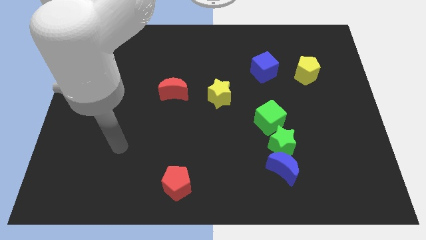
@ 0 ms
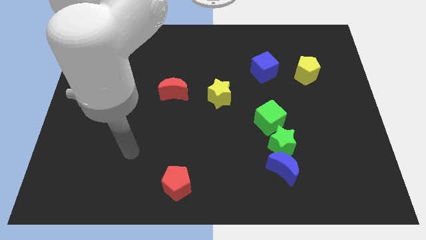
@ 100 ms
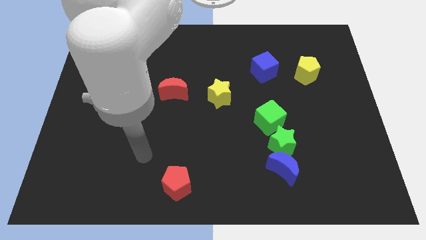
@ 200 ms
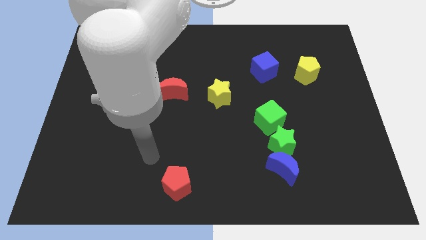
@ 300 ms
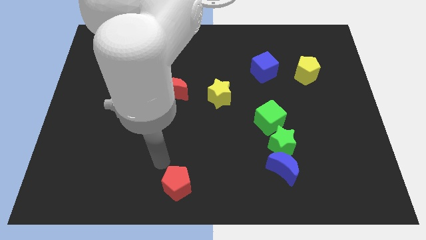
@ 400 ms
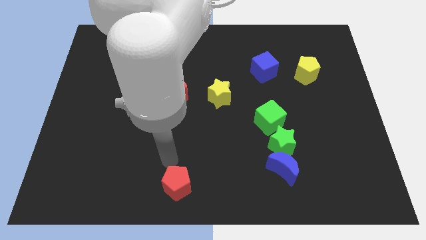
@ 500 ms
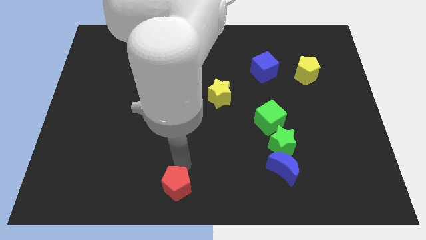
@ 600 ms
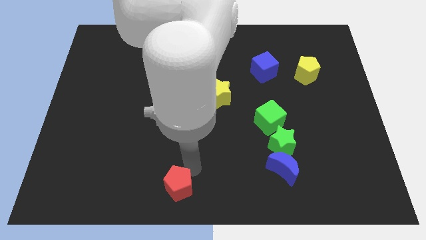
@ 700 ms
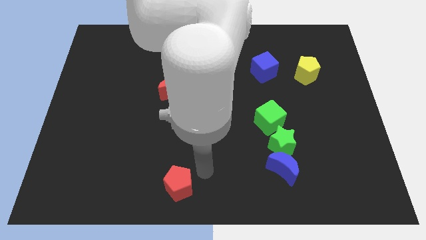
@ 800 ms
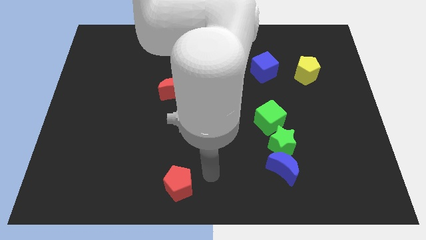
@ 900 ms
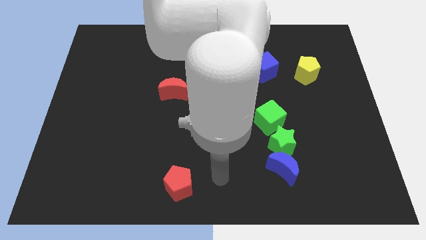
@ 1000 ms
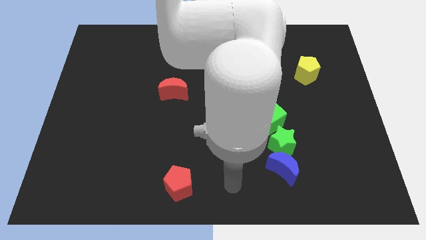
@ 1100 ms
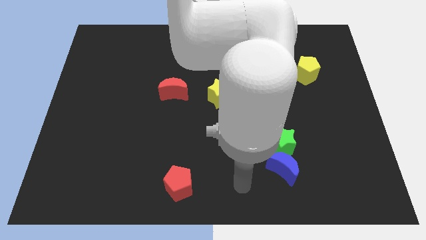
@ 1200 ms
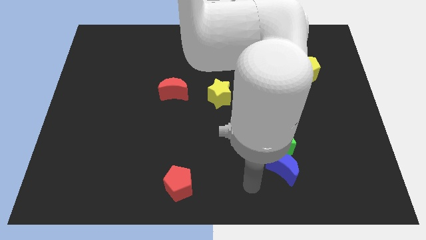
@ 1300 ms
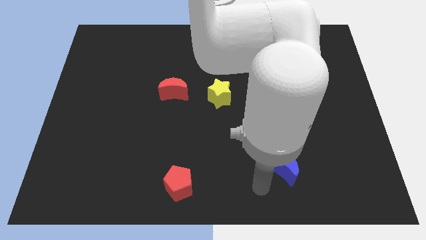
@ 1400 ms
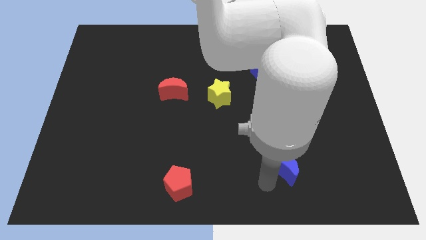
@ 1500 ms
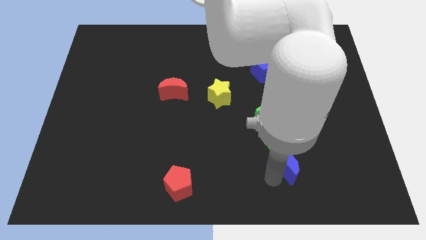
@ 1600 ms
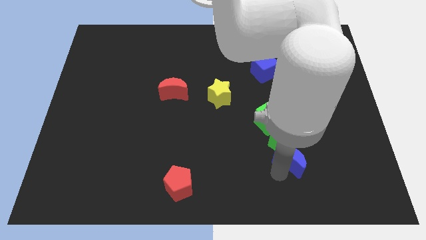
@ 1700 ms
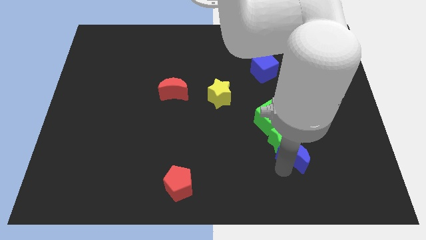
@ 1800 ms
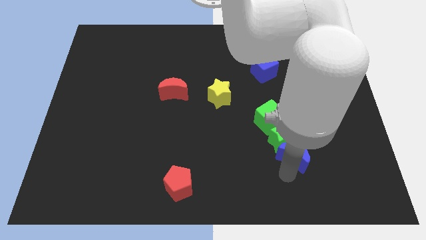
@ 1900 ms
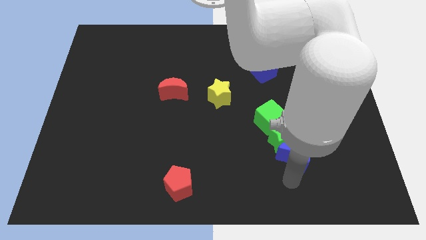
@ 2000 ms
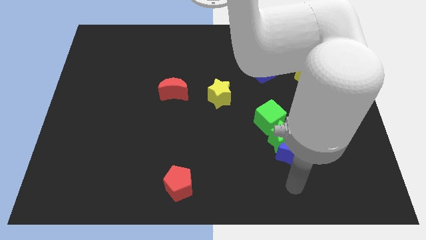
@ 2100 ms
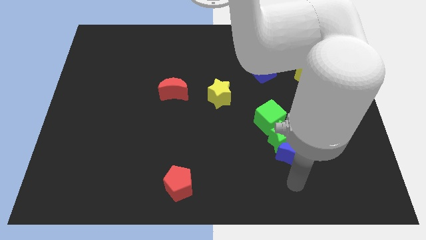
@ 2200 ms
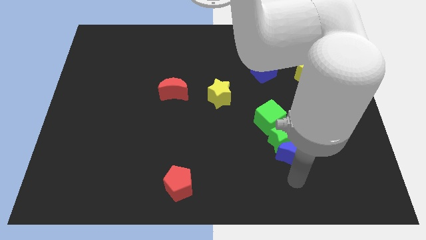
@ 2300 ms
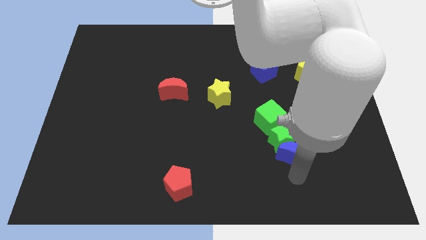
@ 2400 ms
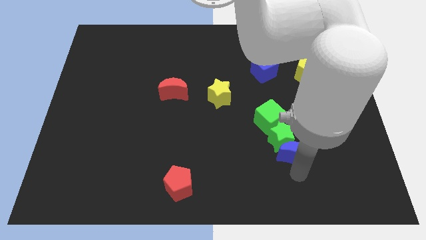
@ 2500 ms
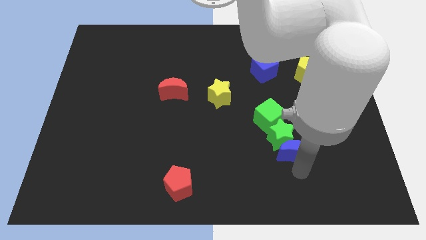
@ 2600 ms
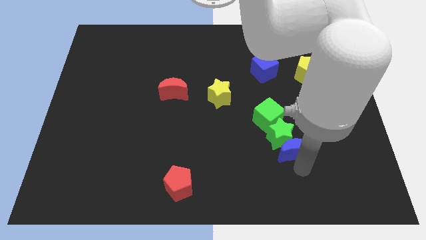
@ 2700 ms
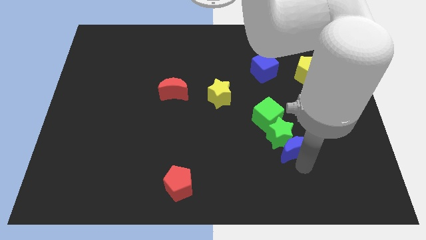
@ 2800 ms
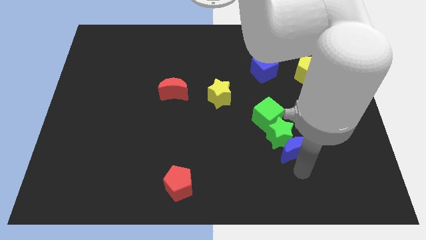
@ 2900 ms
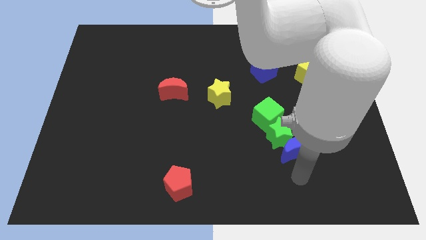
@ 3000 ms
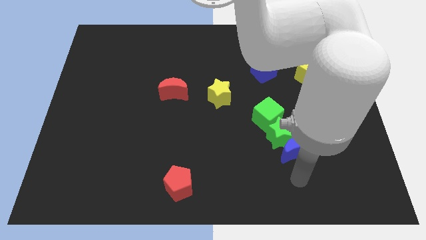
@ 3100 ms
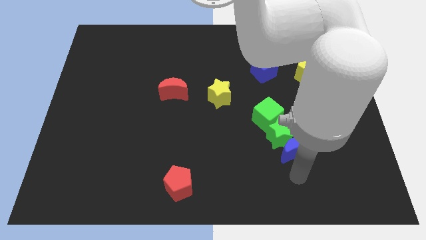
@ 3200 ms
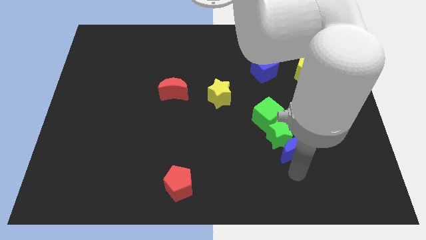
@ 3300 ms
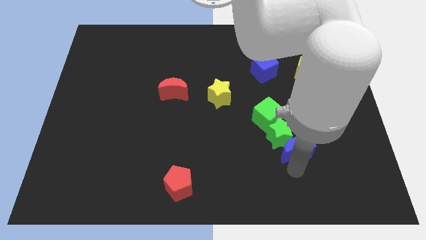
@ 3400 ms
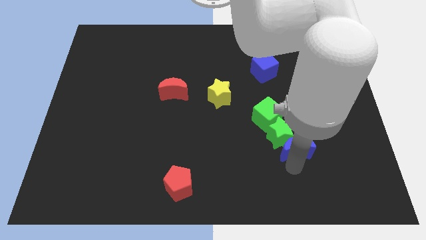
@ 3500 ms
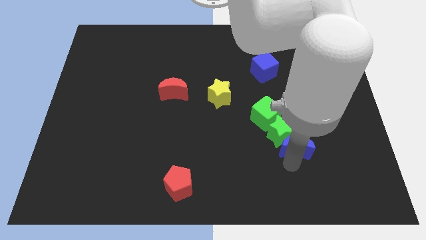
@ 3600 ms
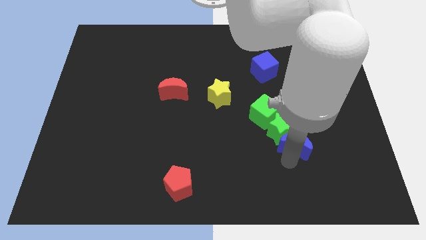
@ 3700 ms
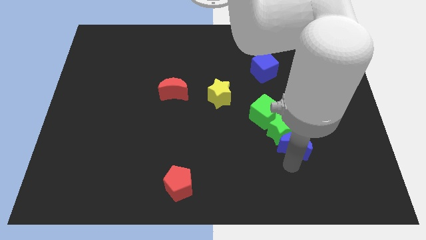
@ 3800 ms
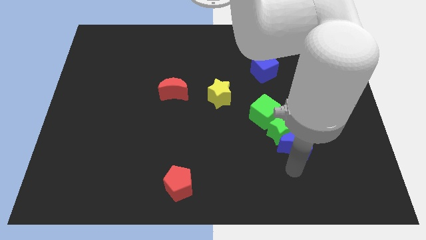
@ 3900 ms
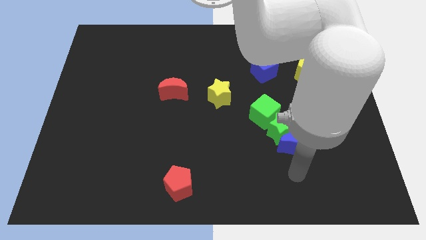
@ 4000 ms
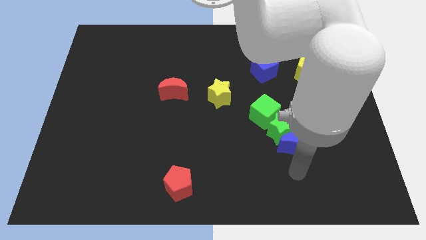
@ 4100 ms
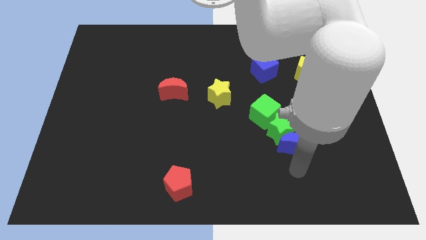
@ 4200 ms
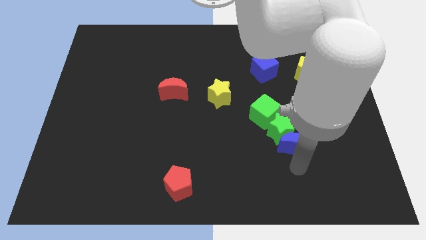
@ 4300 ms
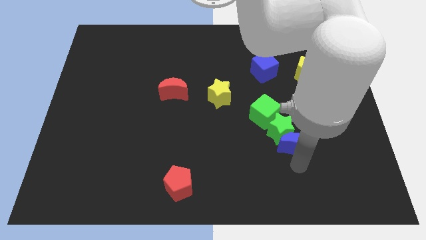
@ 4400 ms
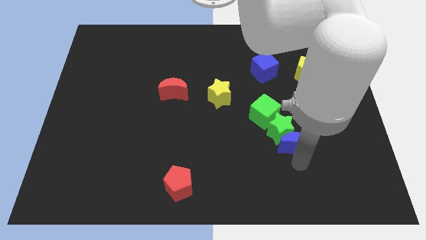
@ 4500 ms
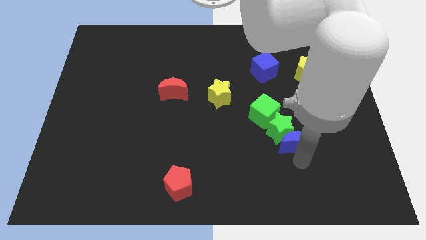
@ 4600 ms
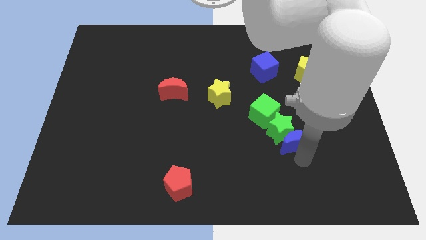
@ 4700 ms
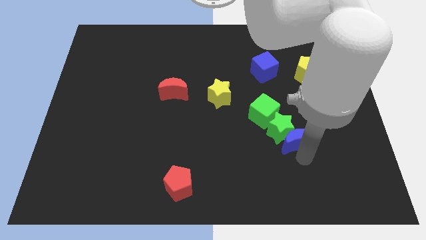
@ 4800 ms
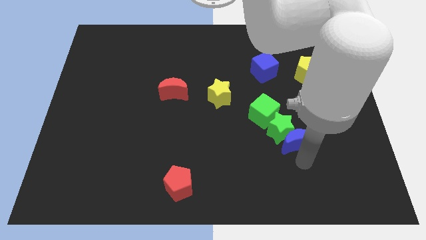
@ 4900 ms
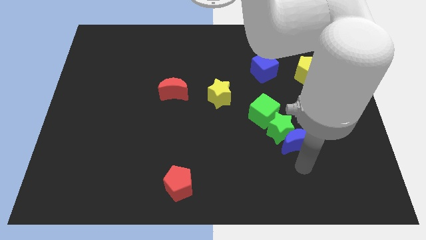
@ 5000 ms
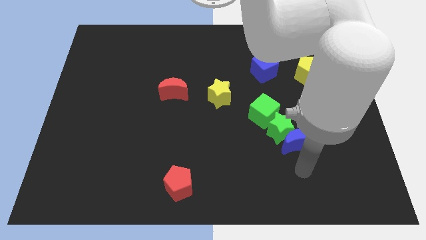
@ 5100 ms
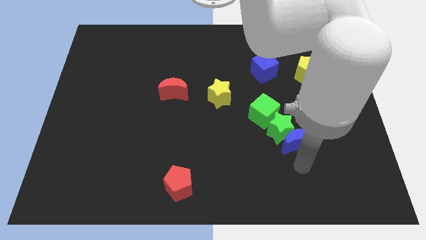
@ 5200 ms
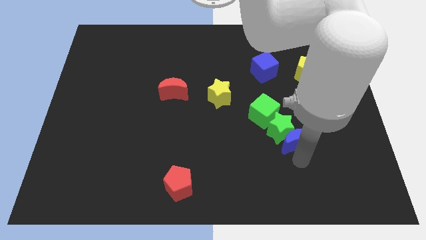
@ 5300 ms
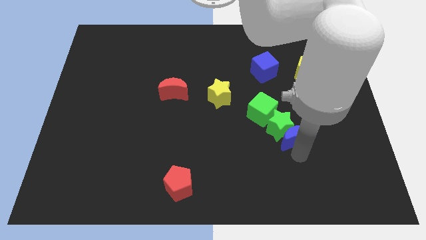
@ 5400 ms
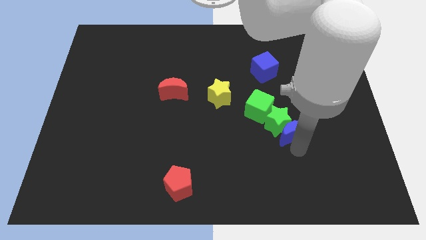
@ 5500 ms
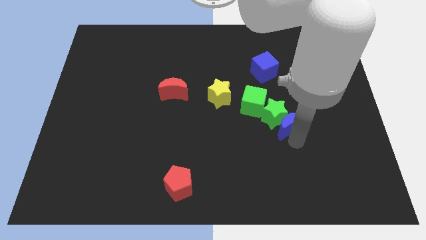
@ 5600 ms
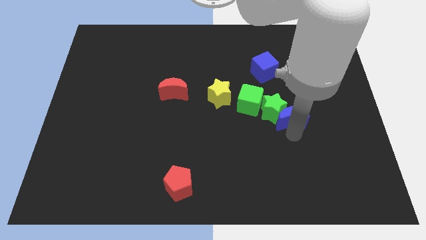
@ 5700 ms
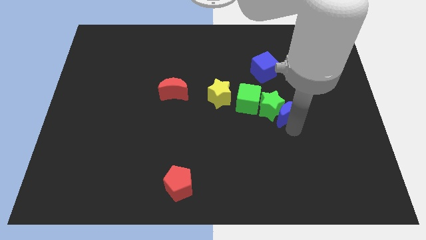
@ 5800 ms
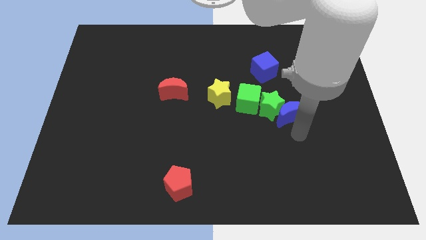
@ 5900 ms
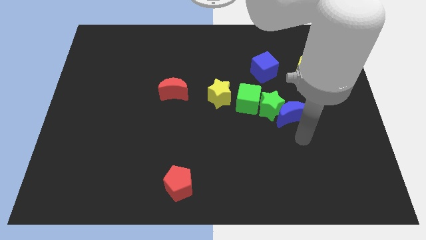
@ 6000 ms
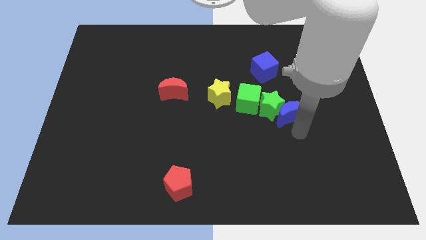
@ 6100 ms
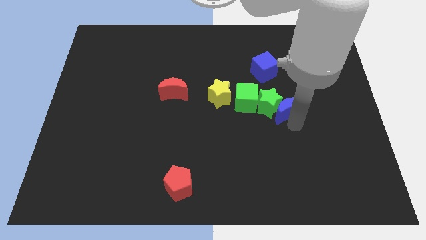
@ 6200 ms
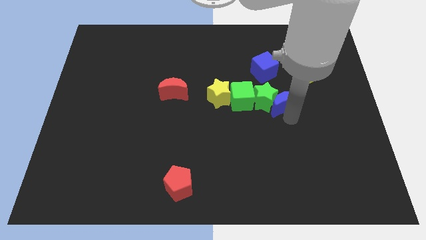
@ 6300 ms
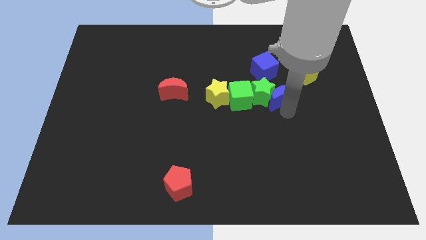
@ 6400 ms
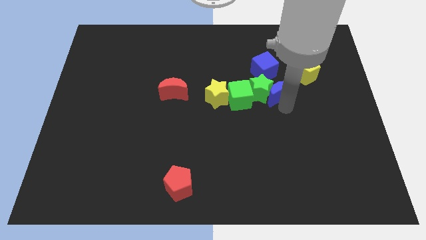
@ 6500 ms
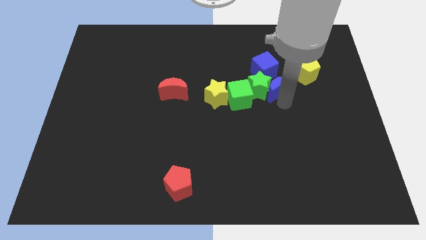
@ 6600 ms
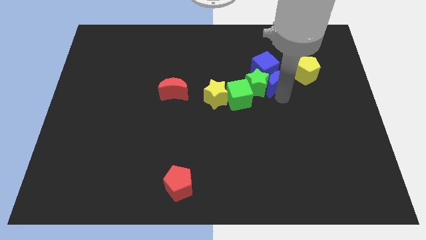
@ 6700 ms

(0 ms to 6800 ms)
put the blue moon to the blue cube

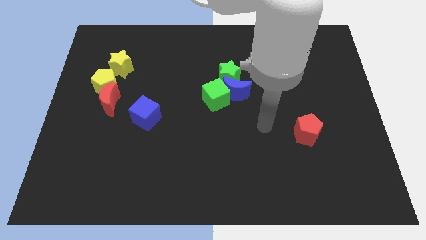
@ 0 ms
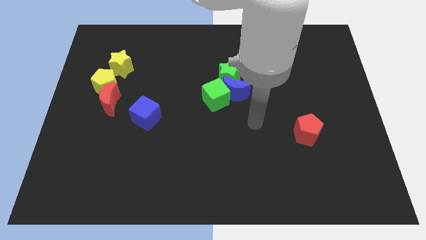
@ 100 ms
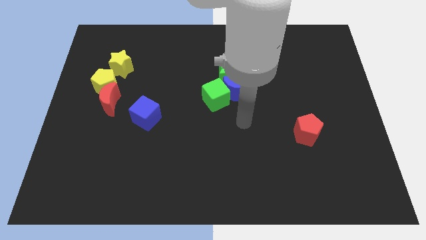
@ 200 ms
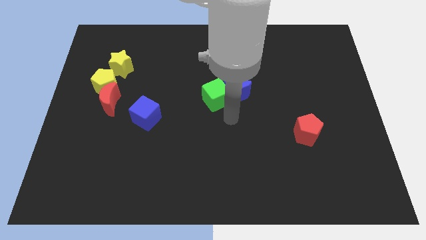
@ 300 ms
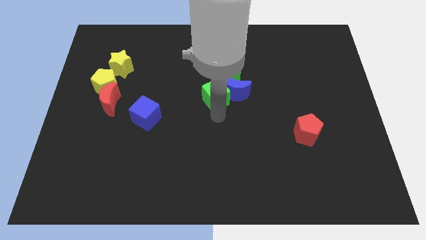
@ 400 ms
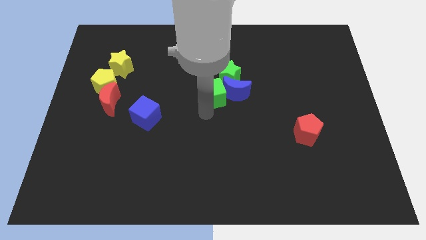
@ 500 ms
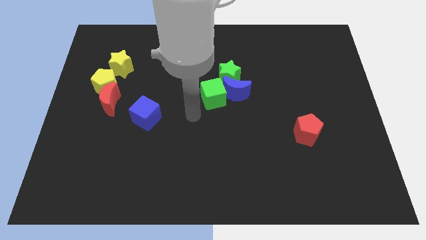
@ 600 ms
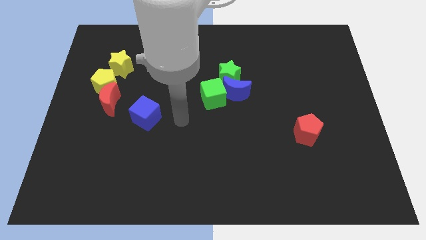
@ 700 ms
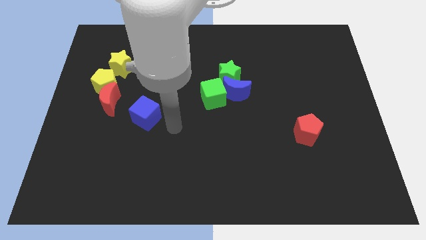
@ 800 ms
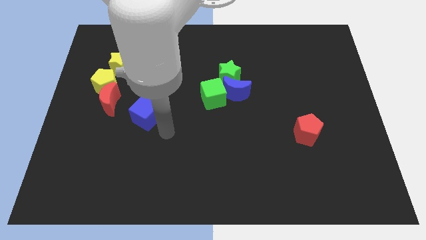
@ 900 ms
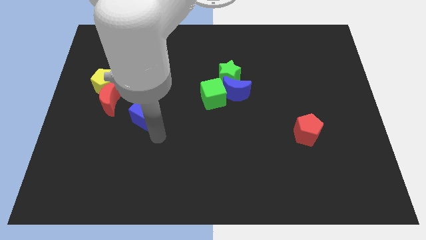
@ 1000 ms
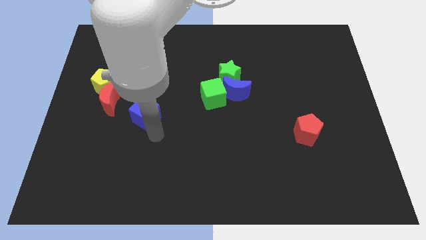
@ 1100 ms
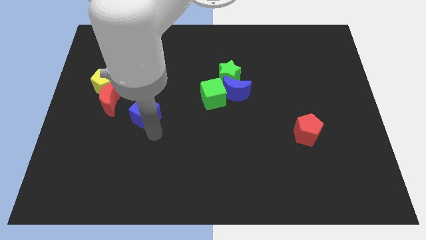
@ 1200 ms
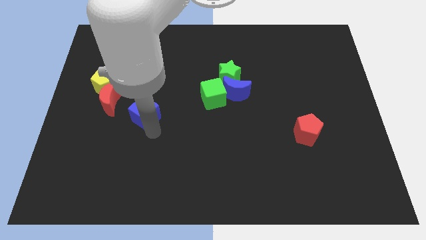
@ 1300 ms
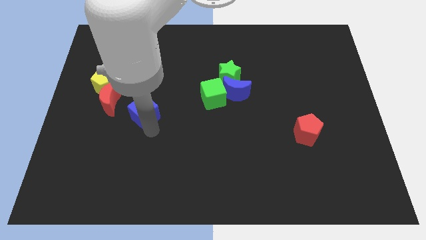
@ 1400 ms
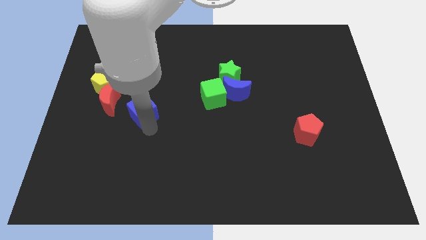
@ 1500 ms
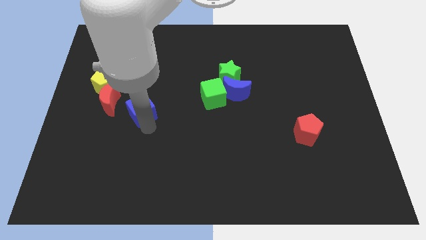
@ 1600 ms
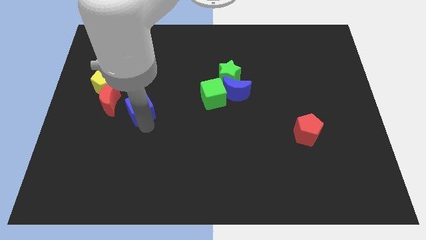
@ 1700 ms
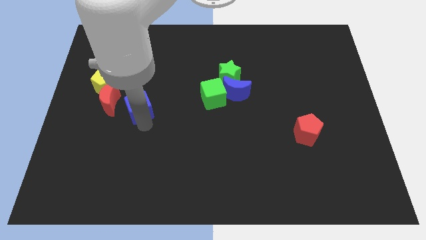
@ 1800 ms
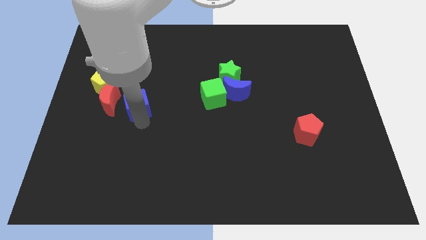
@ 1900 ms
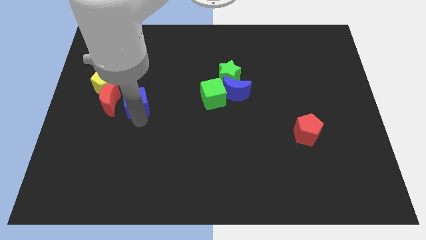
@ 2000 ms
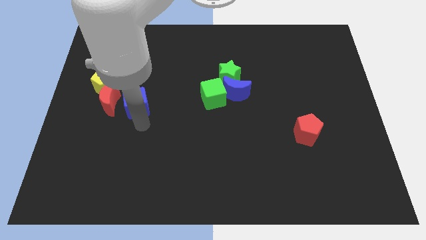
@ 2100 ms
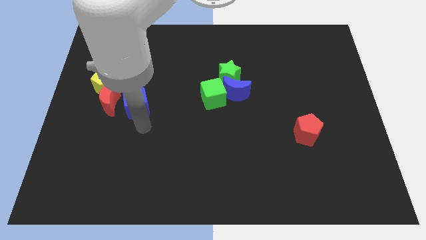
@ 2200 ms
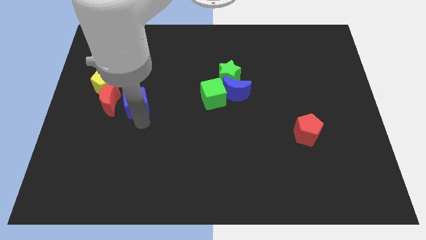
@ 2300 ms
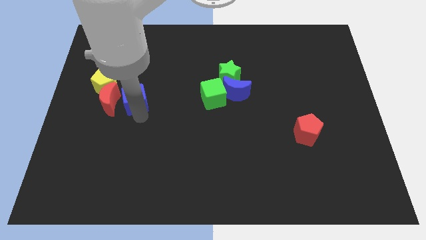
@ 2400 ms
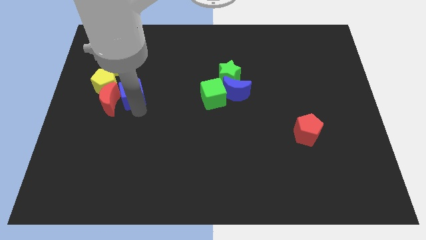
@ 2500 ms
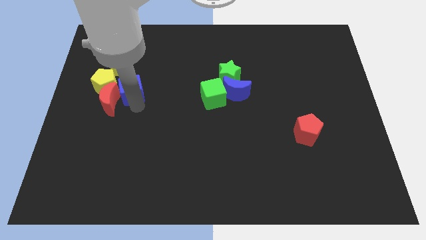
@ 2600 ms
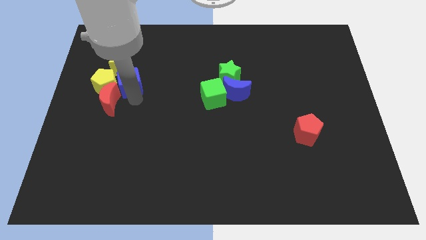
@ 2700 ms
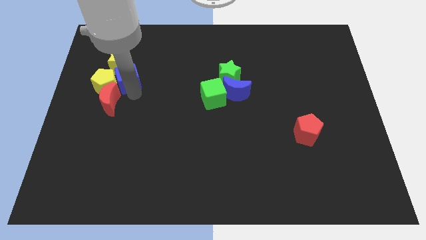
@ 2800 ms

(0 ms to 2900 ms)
slide the blue cube next to the yellow star
